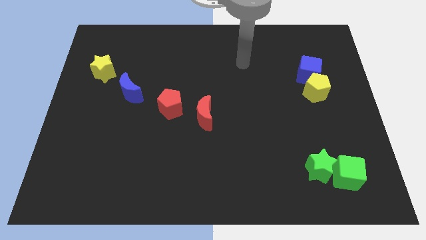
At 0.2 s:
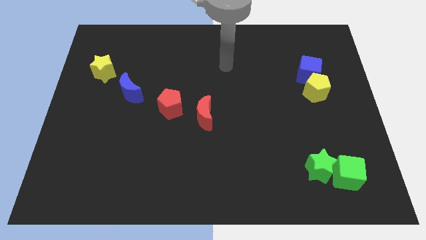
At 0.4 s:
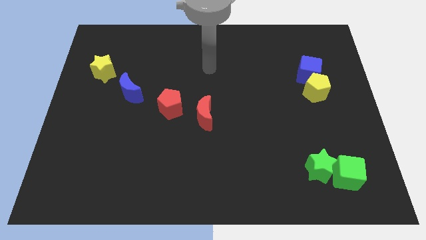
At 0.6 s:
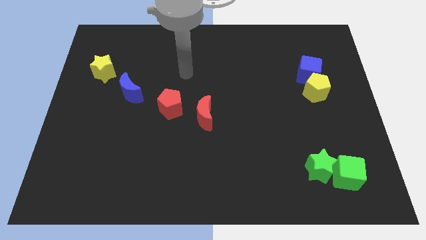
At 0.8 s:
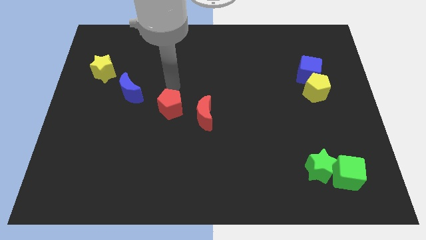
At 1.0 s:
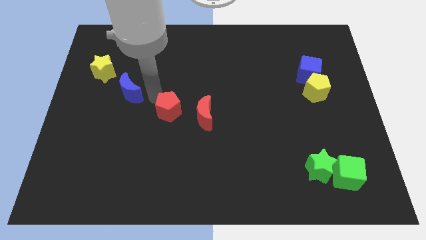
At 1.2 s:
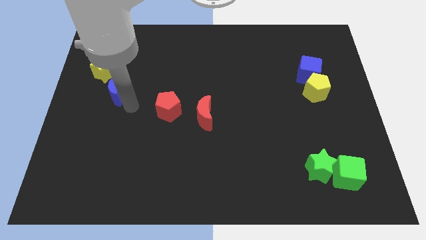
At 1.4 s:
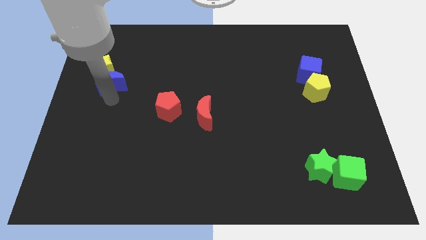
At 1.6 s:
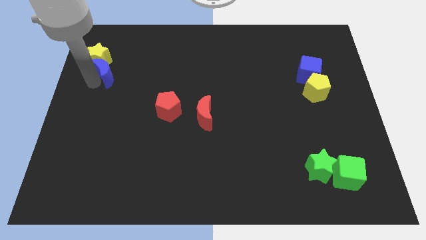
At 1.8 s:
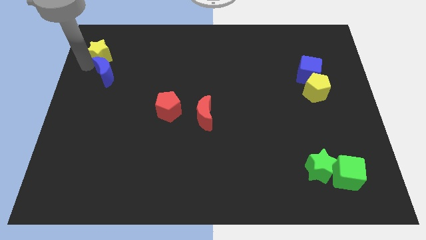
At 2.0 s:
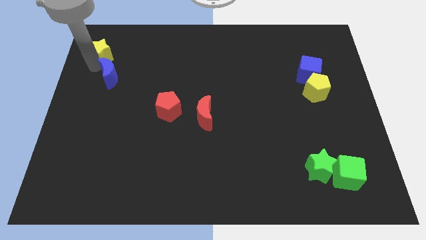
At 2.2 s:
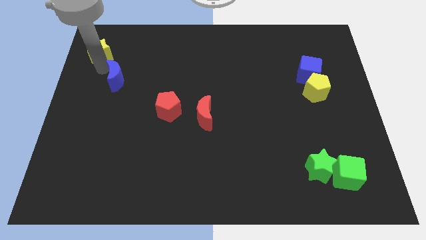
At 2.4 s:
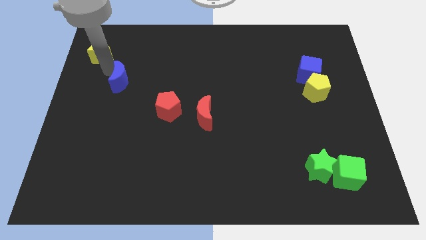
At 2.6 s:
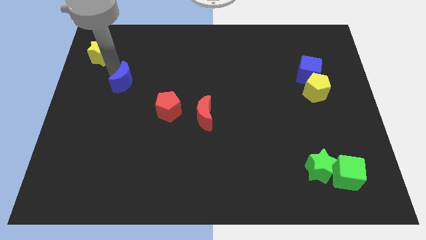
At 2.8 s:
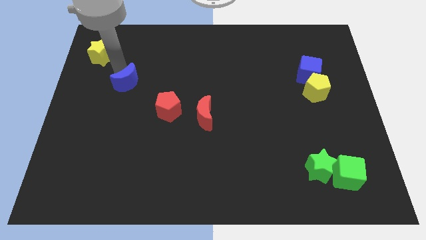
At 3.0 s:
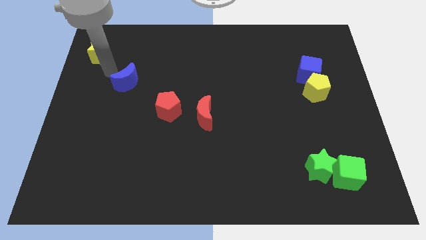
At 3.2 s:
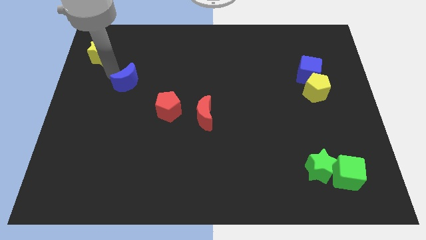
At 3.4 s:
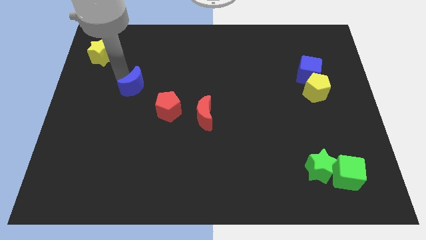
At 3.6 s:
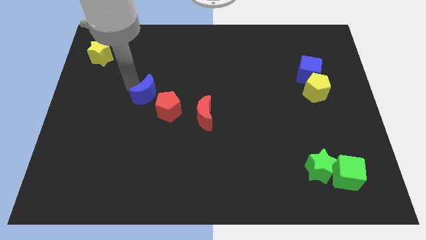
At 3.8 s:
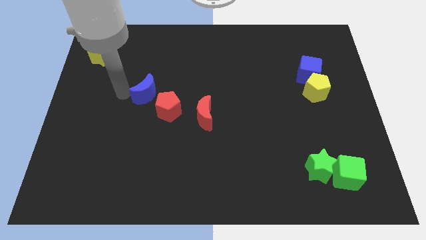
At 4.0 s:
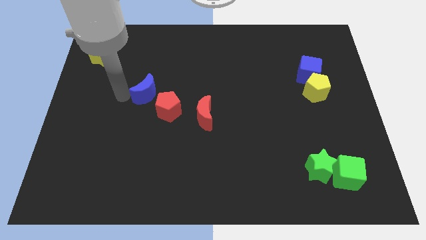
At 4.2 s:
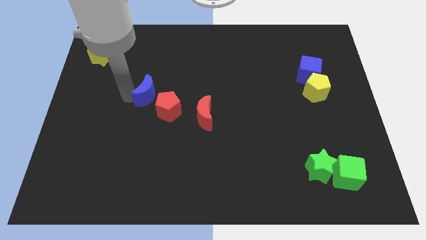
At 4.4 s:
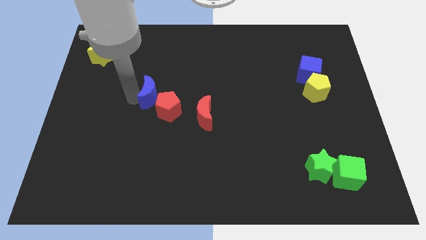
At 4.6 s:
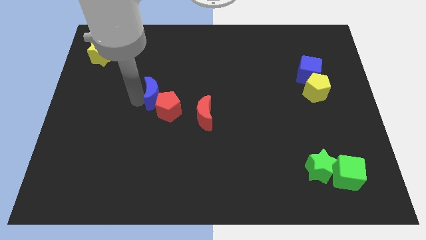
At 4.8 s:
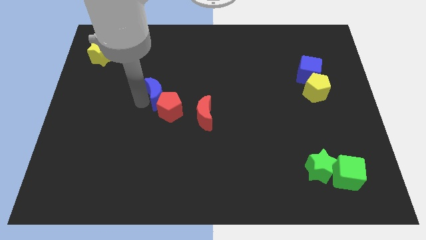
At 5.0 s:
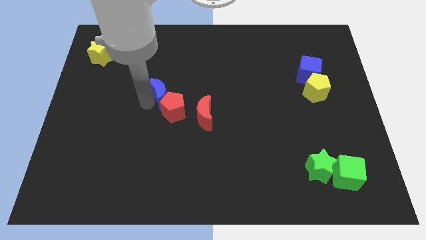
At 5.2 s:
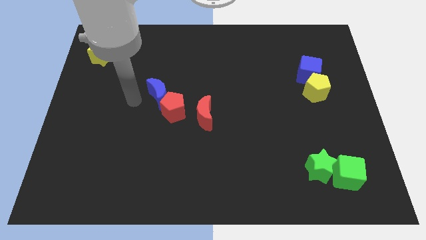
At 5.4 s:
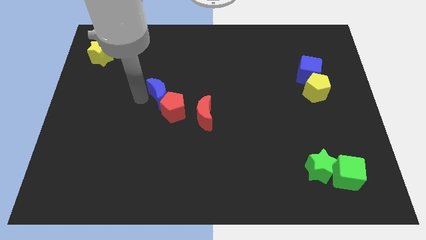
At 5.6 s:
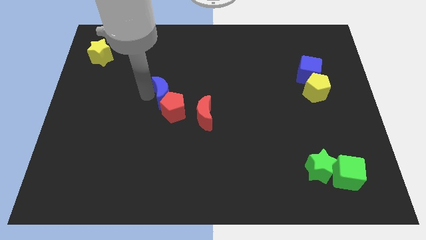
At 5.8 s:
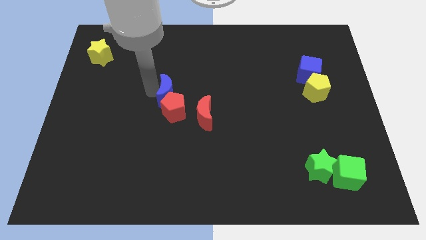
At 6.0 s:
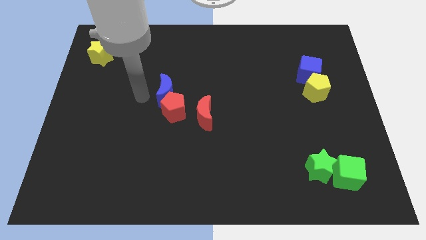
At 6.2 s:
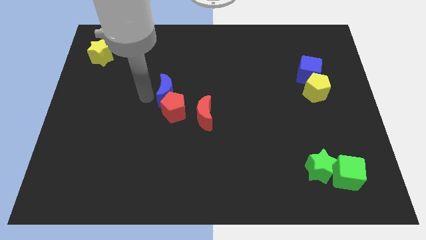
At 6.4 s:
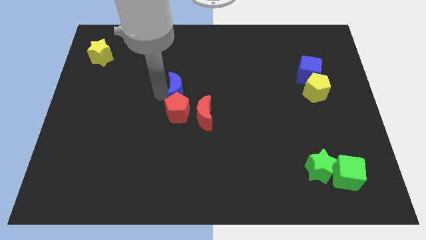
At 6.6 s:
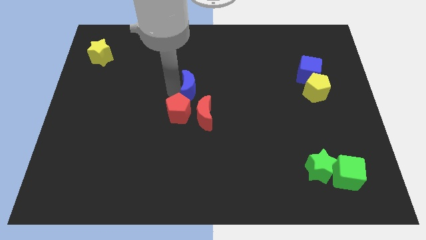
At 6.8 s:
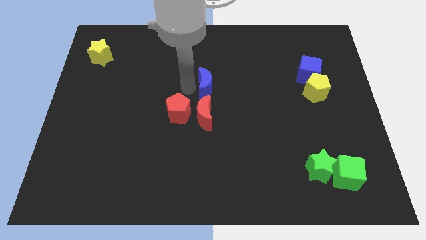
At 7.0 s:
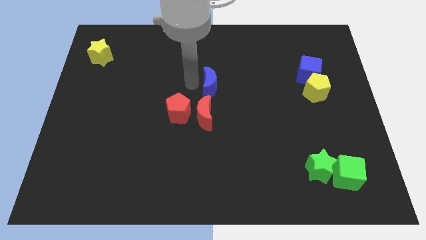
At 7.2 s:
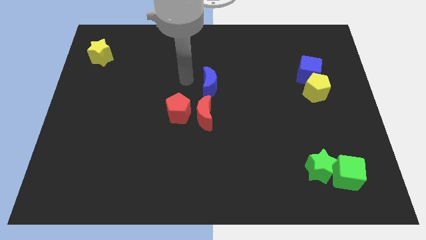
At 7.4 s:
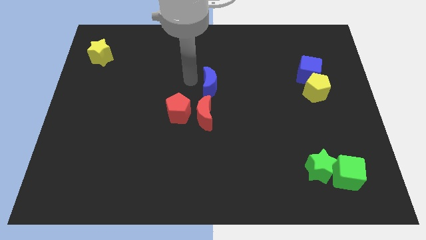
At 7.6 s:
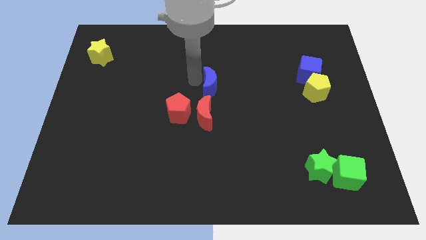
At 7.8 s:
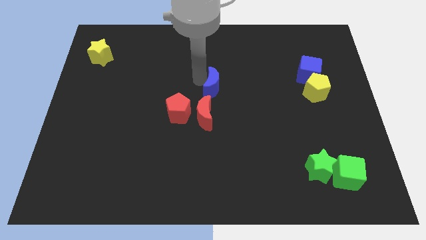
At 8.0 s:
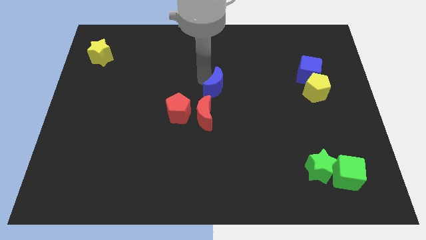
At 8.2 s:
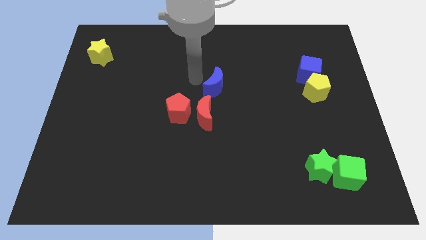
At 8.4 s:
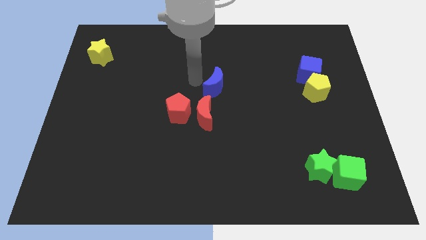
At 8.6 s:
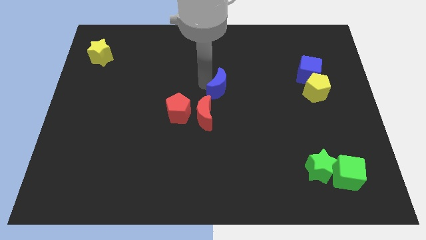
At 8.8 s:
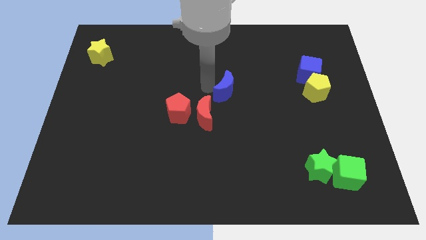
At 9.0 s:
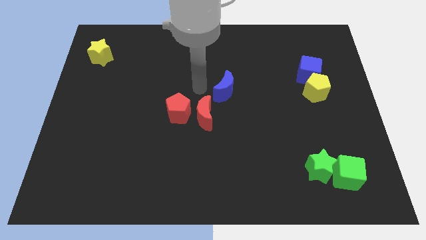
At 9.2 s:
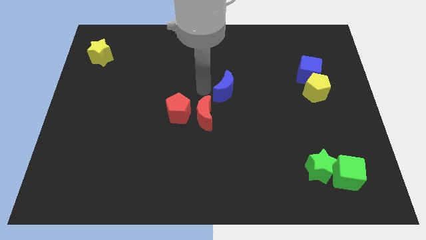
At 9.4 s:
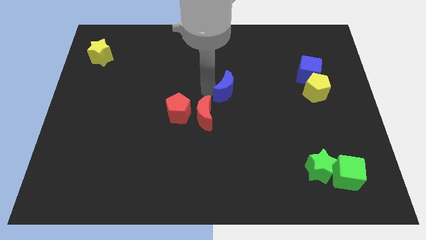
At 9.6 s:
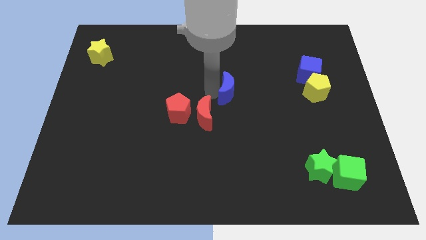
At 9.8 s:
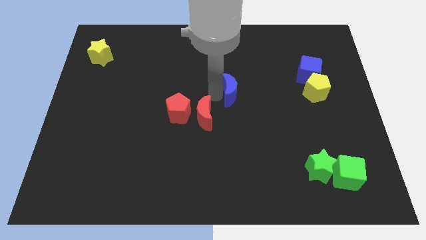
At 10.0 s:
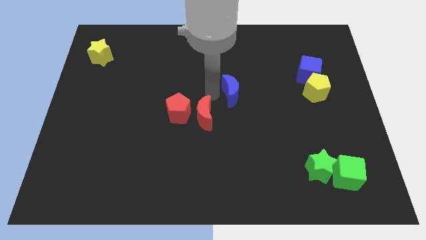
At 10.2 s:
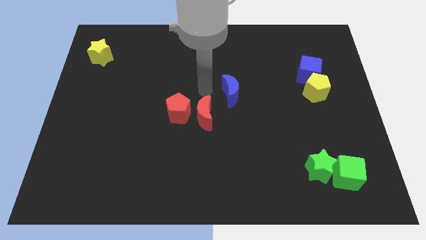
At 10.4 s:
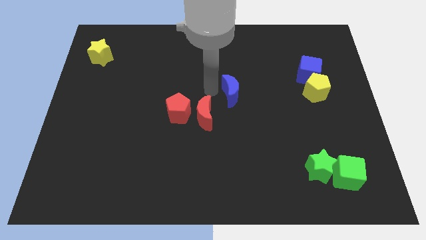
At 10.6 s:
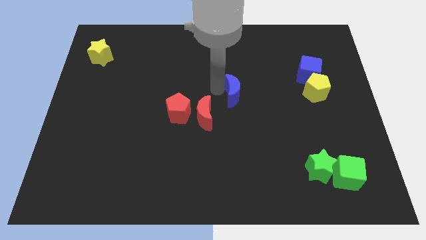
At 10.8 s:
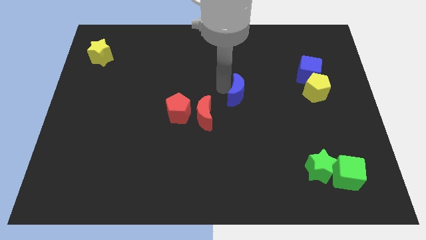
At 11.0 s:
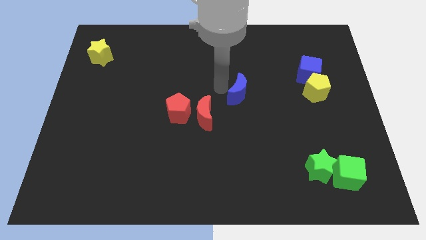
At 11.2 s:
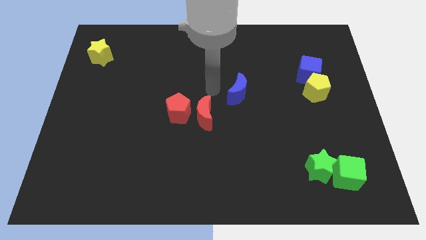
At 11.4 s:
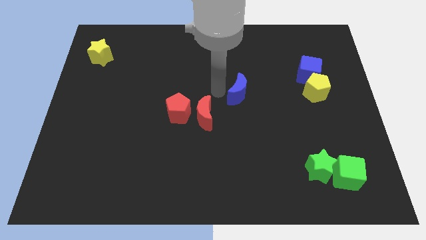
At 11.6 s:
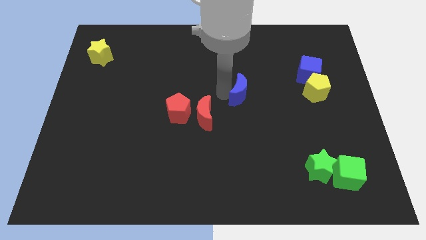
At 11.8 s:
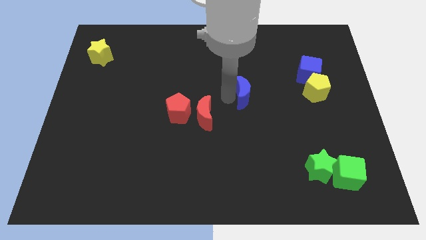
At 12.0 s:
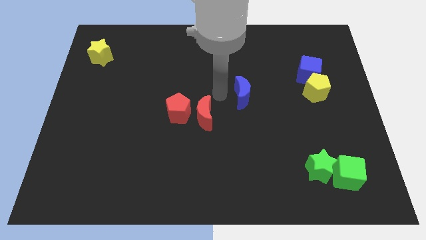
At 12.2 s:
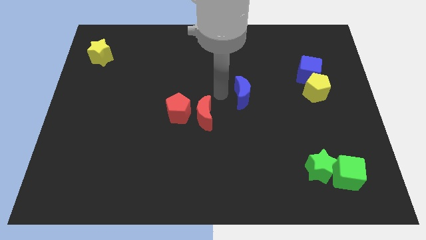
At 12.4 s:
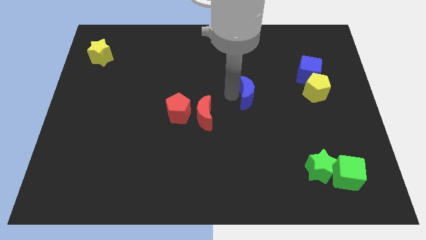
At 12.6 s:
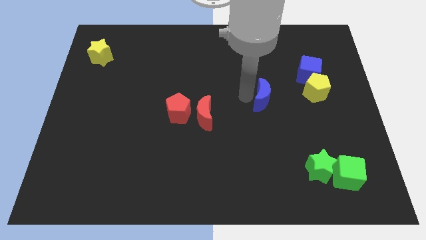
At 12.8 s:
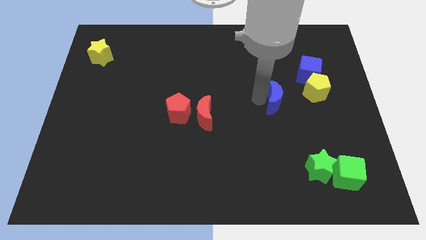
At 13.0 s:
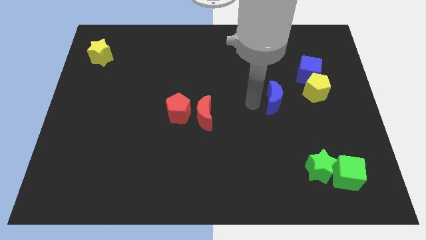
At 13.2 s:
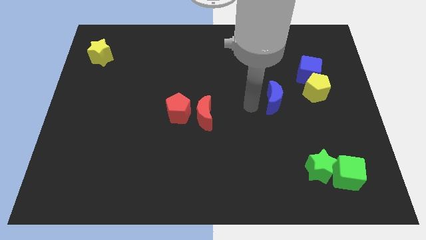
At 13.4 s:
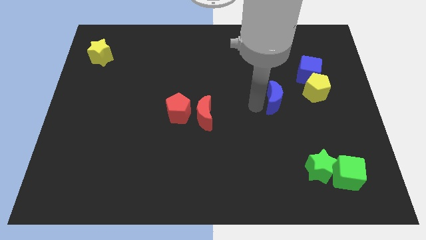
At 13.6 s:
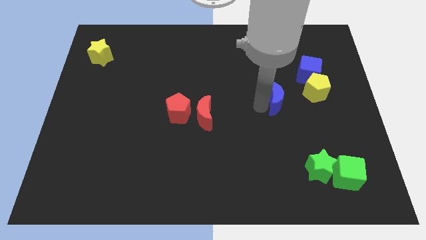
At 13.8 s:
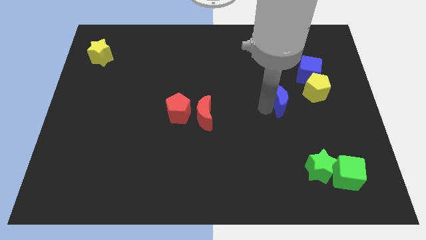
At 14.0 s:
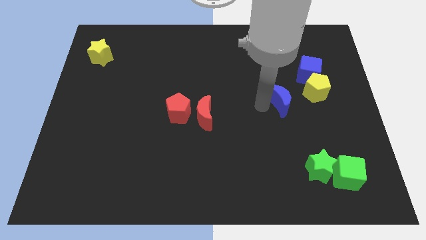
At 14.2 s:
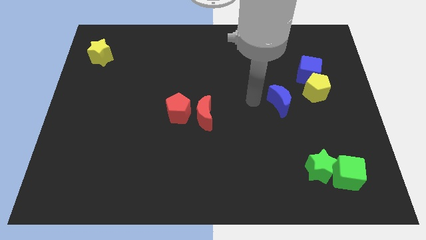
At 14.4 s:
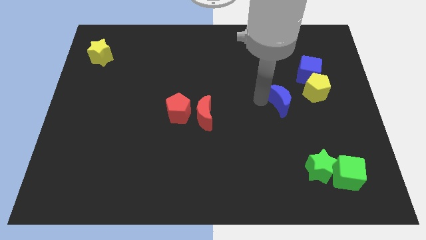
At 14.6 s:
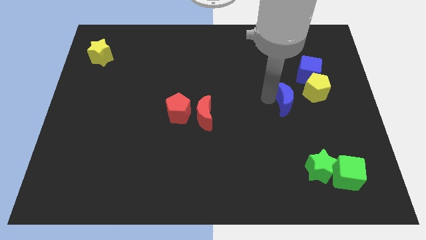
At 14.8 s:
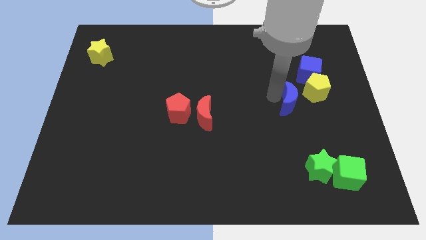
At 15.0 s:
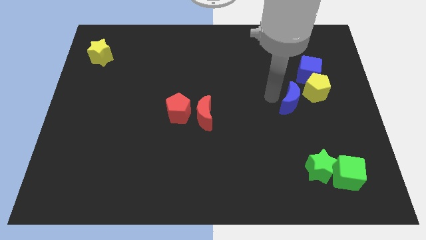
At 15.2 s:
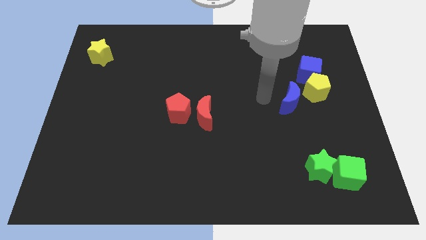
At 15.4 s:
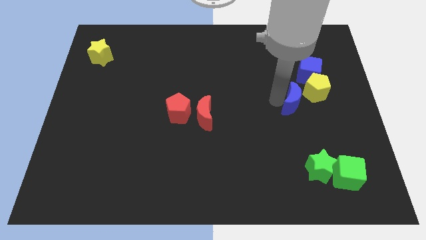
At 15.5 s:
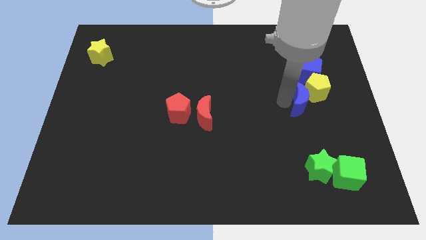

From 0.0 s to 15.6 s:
slide the blue moon to the bottom of the blue cube
